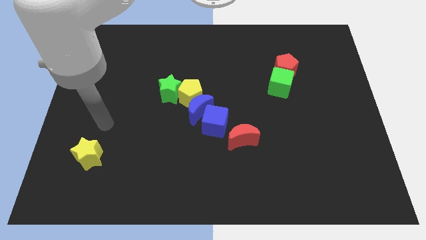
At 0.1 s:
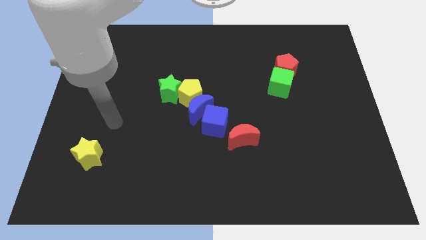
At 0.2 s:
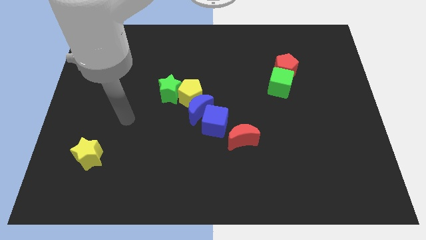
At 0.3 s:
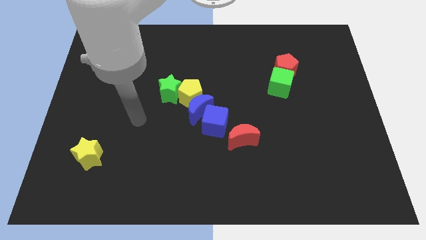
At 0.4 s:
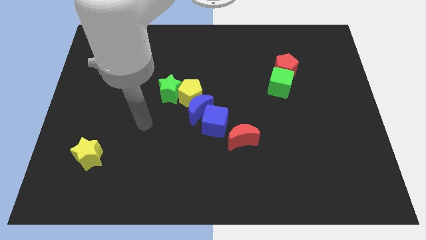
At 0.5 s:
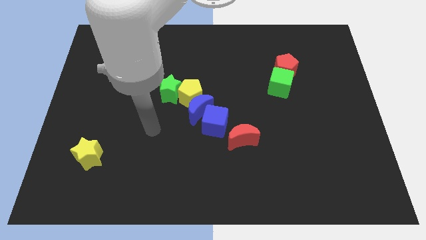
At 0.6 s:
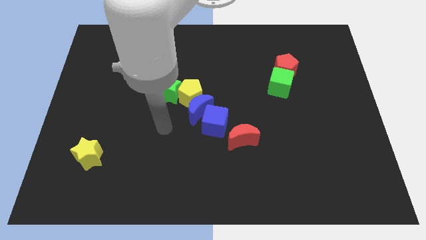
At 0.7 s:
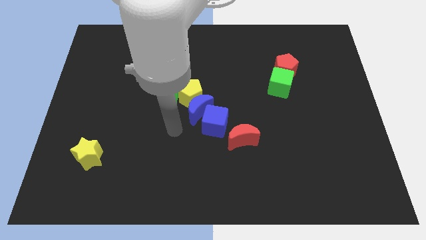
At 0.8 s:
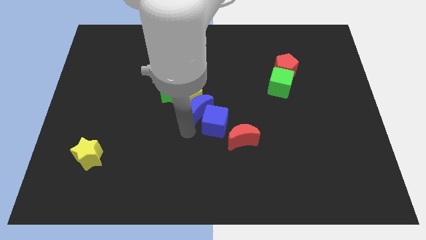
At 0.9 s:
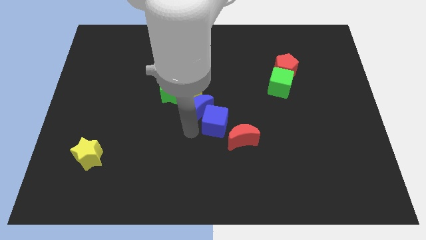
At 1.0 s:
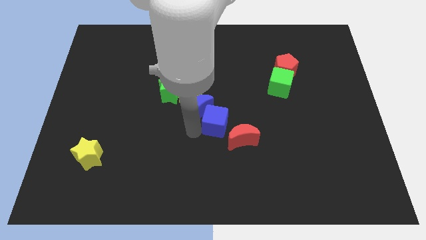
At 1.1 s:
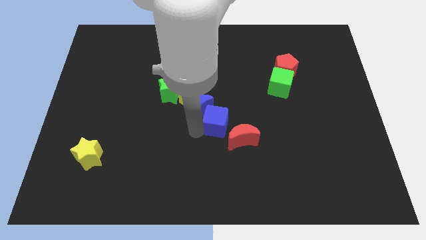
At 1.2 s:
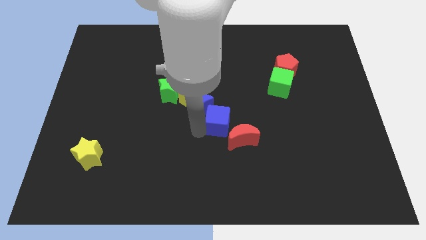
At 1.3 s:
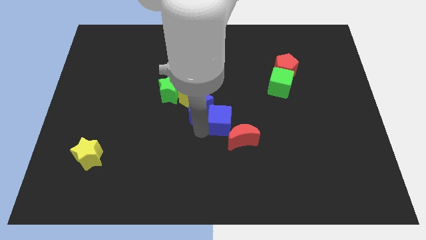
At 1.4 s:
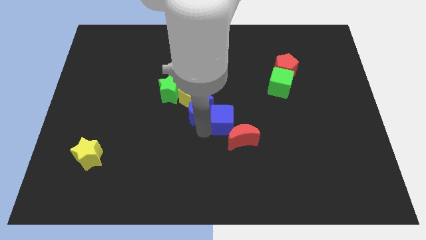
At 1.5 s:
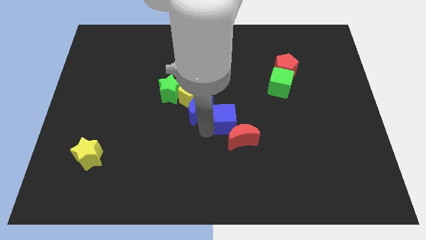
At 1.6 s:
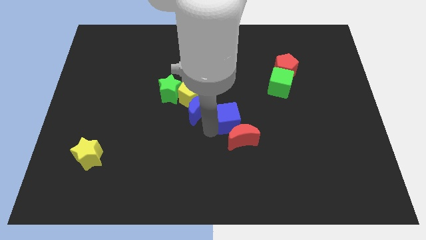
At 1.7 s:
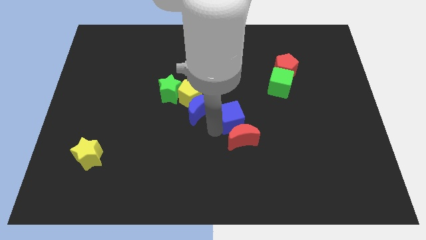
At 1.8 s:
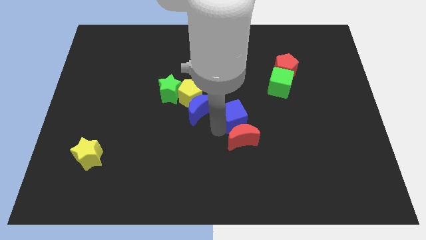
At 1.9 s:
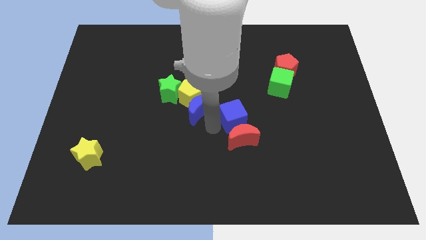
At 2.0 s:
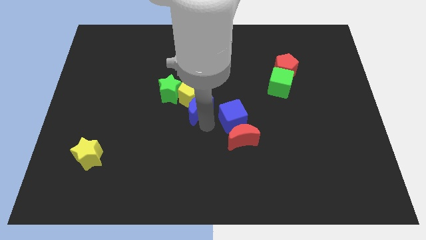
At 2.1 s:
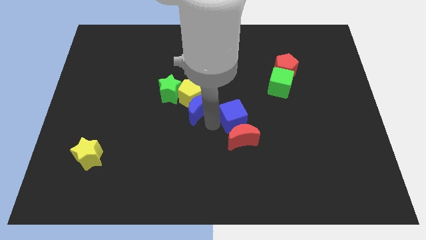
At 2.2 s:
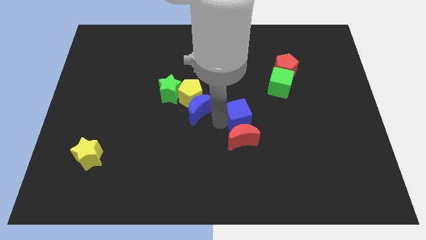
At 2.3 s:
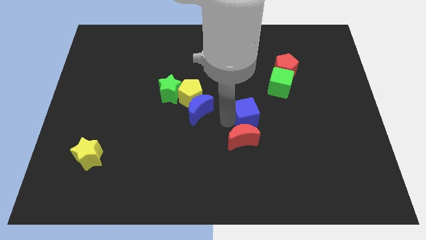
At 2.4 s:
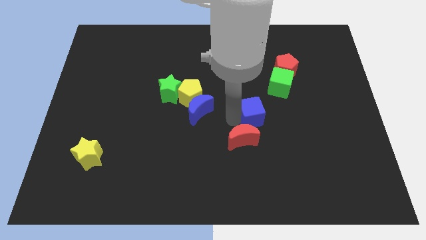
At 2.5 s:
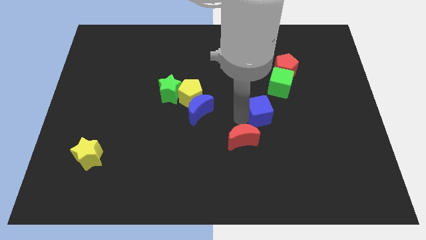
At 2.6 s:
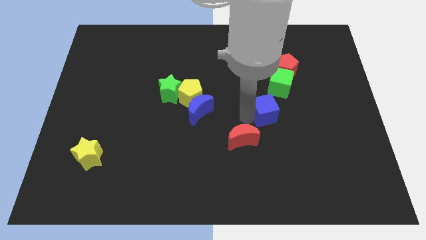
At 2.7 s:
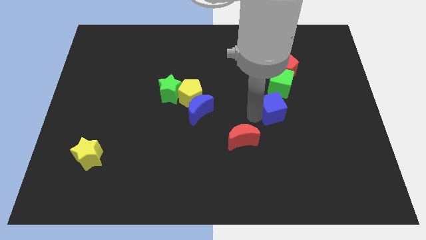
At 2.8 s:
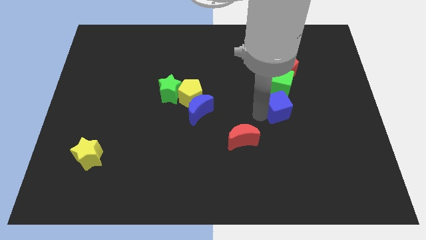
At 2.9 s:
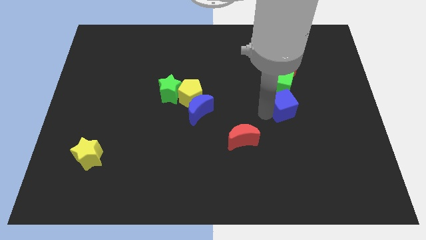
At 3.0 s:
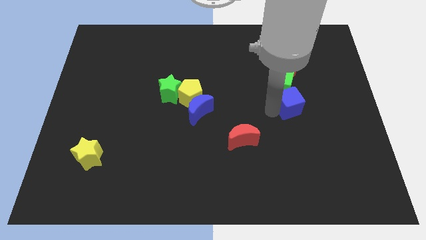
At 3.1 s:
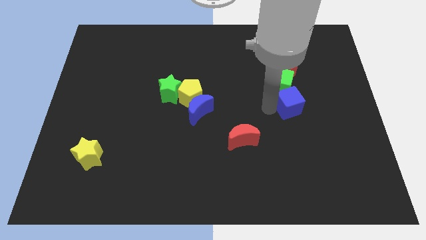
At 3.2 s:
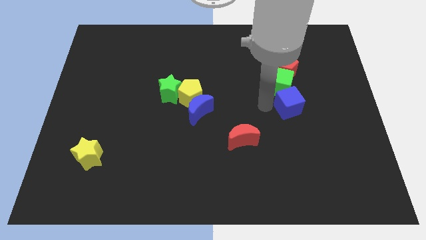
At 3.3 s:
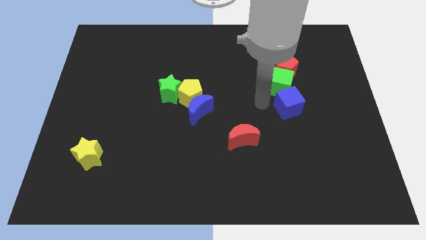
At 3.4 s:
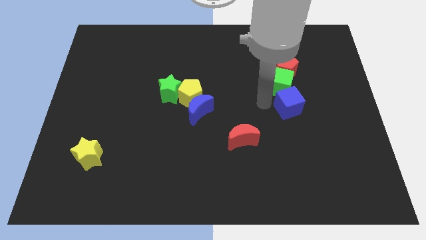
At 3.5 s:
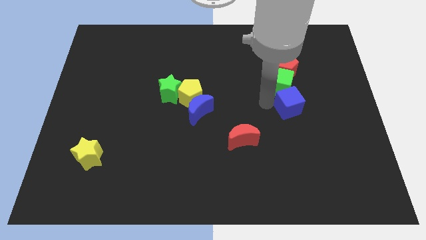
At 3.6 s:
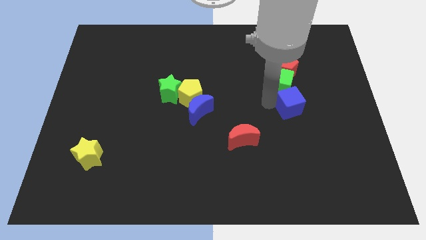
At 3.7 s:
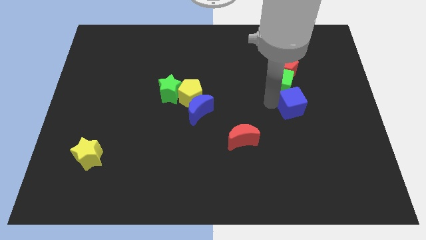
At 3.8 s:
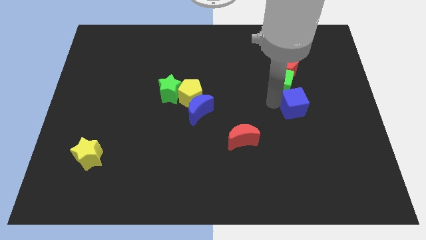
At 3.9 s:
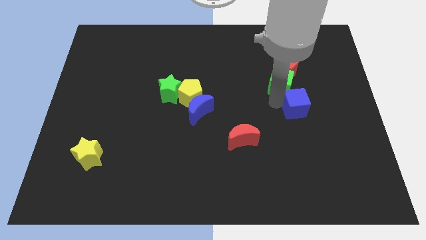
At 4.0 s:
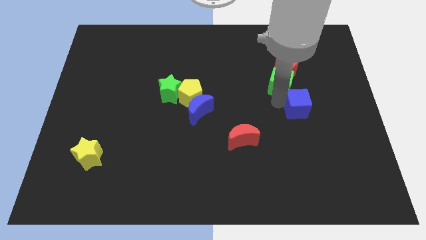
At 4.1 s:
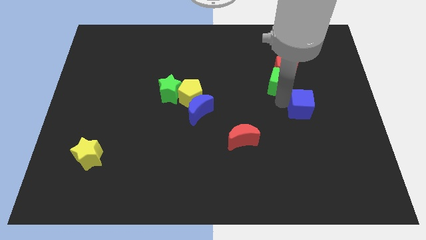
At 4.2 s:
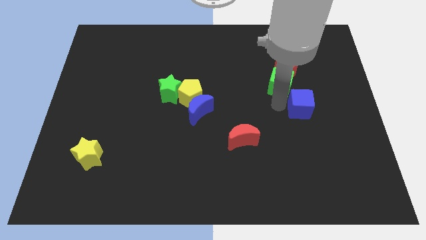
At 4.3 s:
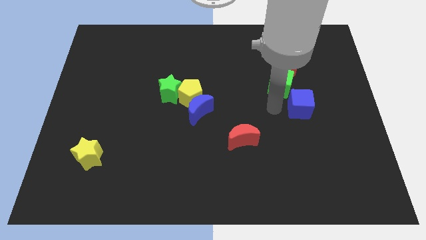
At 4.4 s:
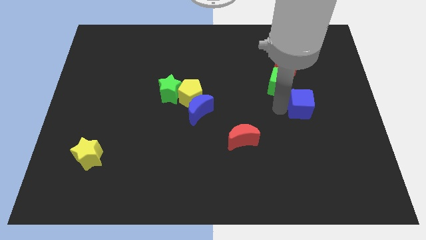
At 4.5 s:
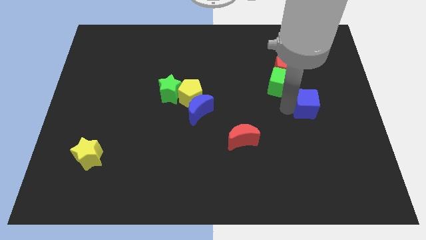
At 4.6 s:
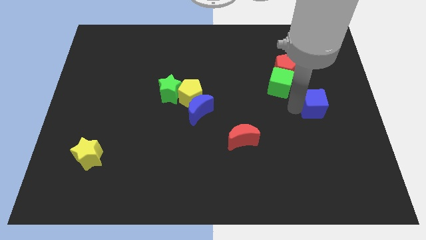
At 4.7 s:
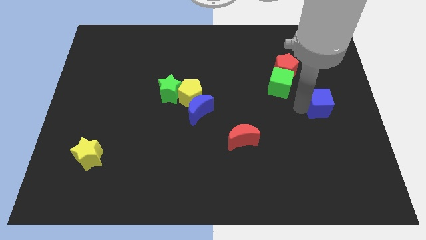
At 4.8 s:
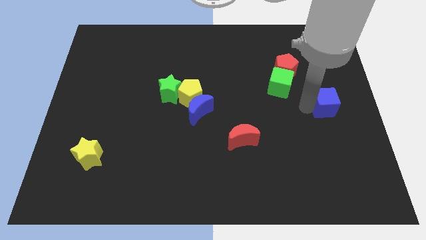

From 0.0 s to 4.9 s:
slide the blue cube to the right side of the board

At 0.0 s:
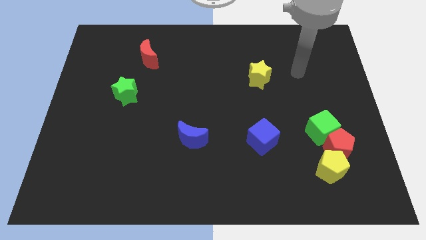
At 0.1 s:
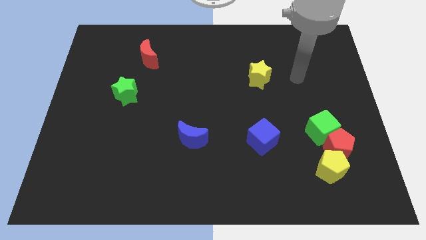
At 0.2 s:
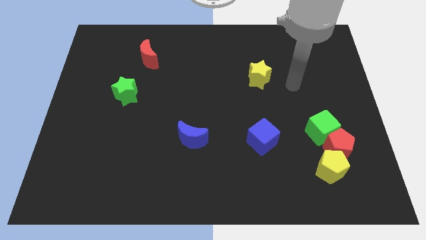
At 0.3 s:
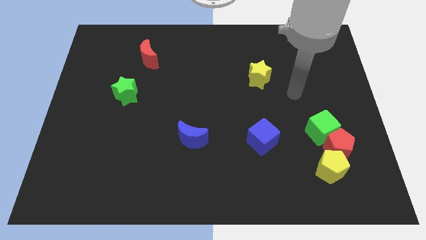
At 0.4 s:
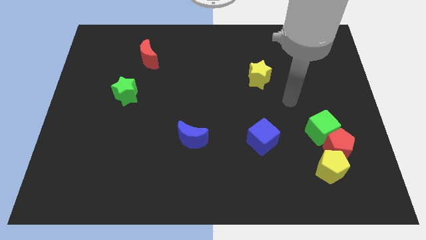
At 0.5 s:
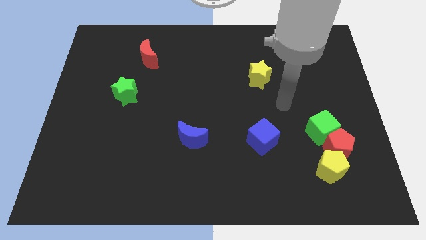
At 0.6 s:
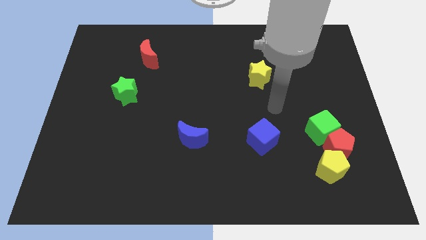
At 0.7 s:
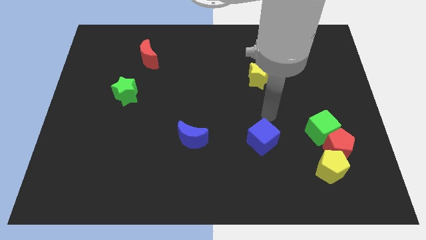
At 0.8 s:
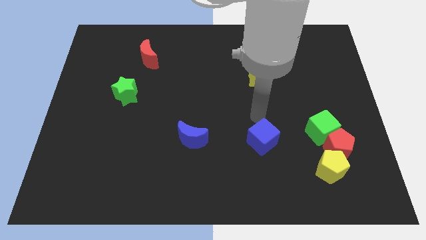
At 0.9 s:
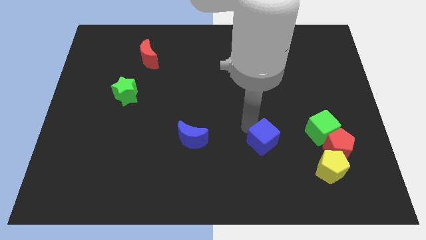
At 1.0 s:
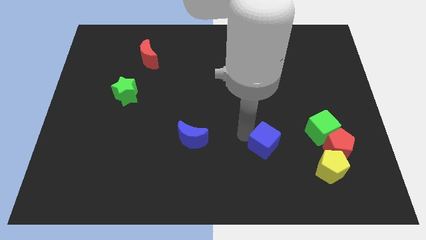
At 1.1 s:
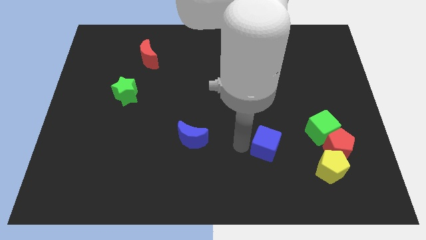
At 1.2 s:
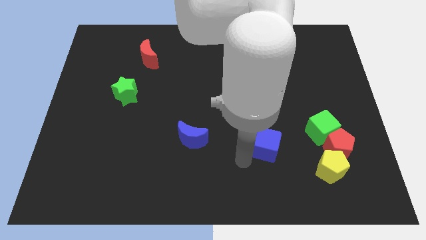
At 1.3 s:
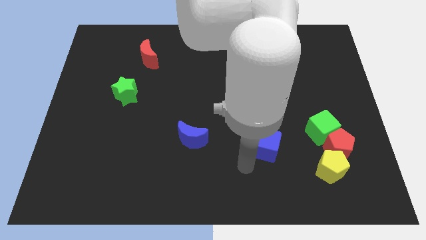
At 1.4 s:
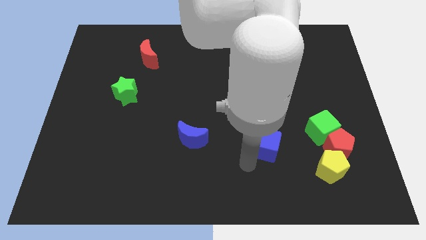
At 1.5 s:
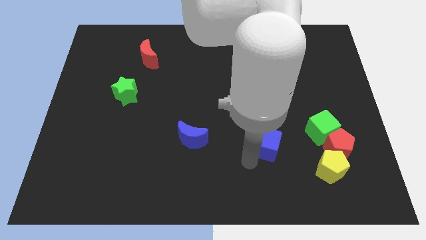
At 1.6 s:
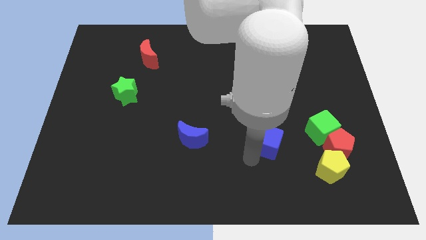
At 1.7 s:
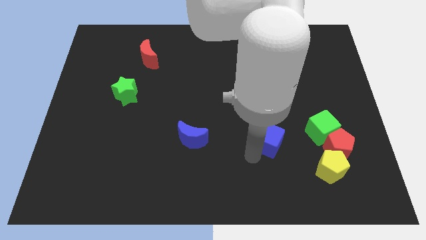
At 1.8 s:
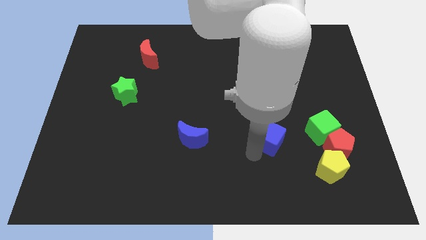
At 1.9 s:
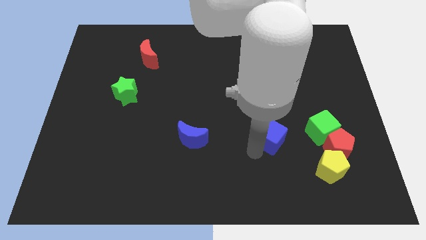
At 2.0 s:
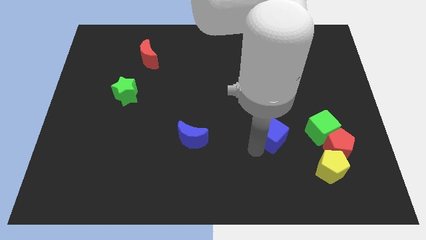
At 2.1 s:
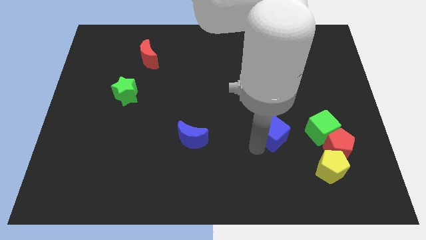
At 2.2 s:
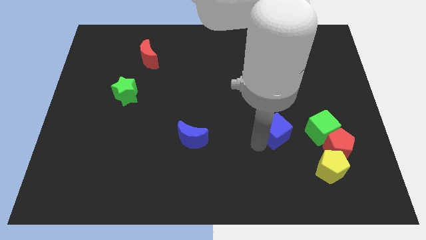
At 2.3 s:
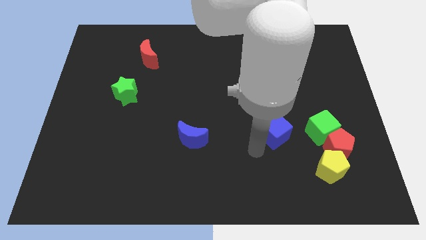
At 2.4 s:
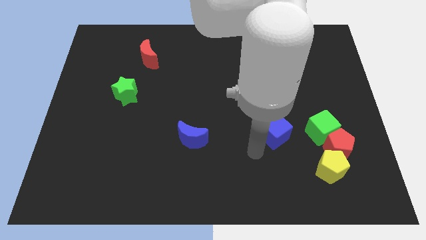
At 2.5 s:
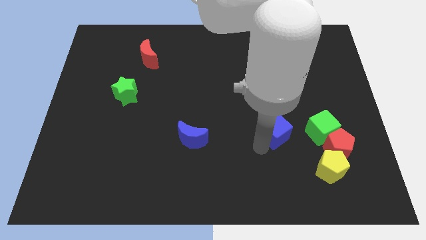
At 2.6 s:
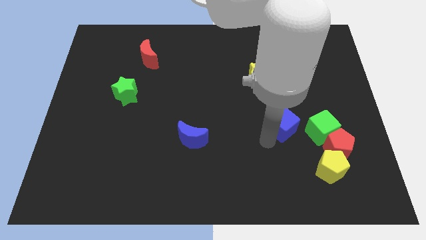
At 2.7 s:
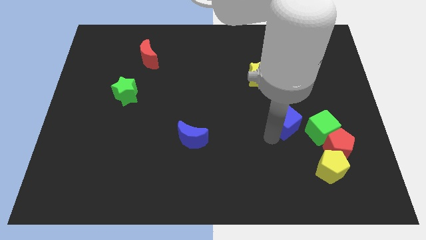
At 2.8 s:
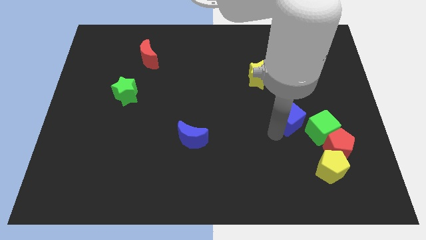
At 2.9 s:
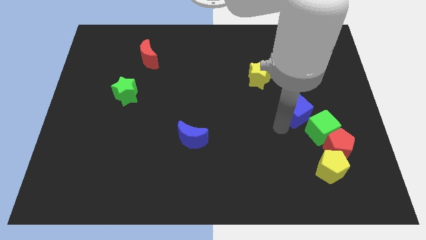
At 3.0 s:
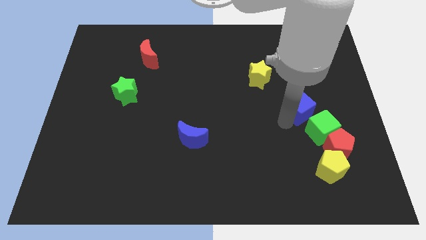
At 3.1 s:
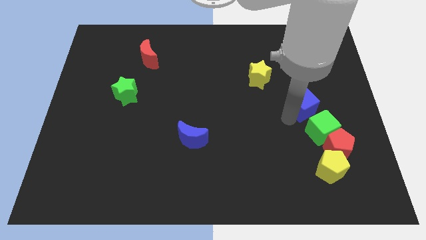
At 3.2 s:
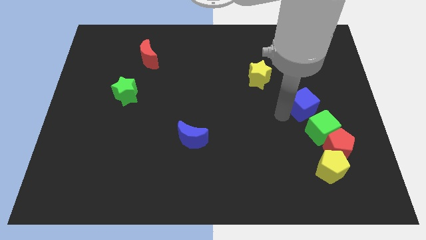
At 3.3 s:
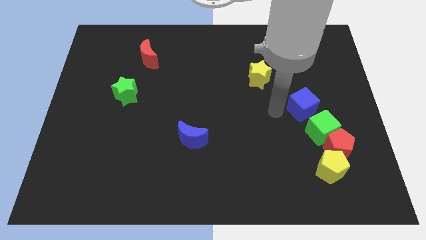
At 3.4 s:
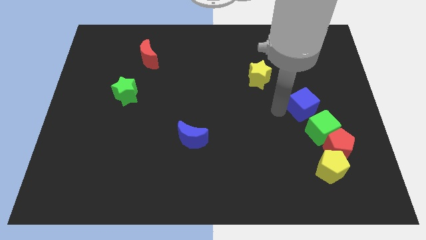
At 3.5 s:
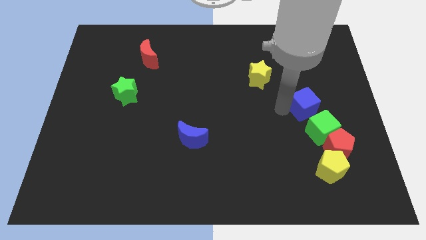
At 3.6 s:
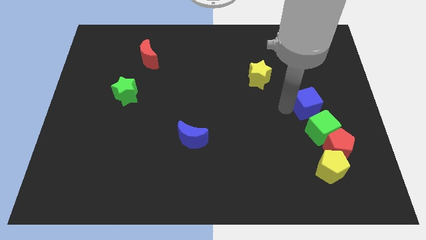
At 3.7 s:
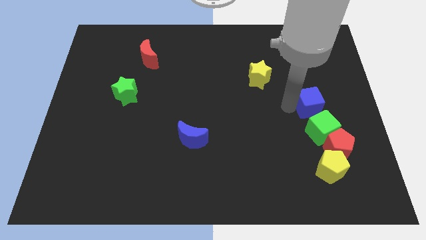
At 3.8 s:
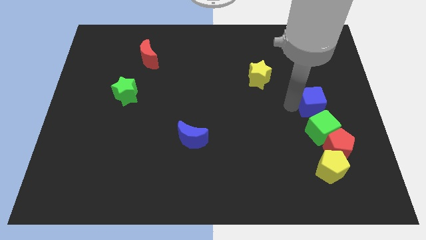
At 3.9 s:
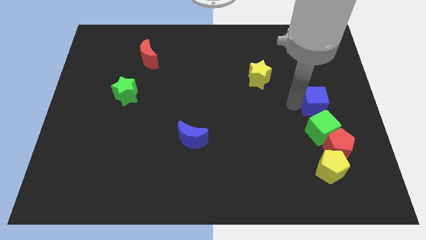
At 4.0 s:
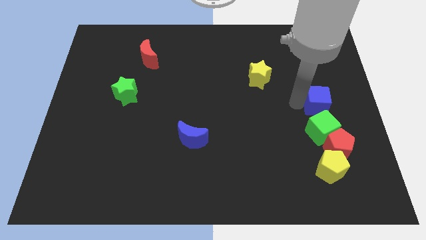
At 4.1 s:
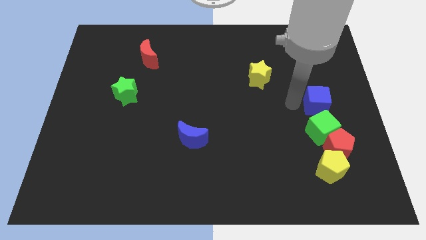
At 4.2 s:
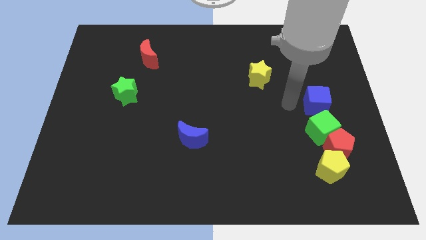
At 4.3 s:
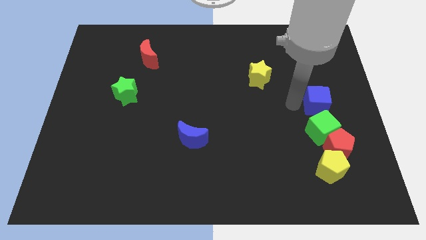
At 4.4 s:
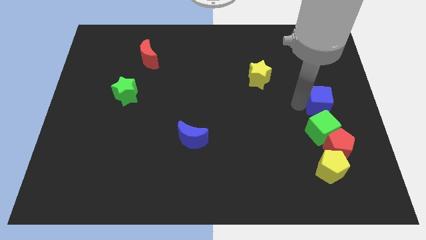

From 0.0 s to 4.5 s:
slide the blue cube to the center right
